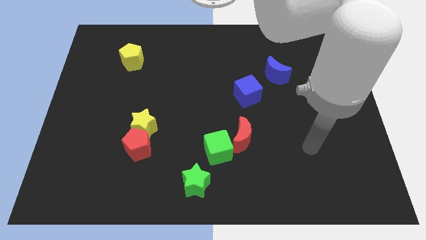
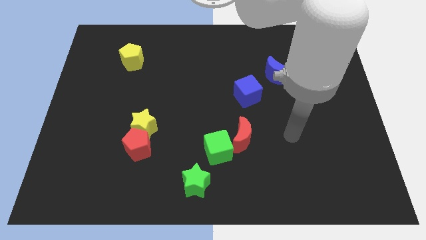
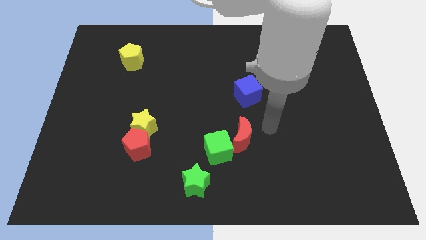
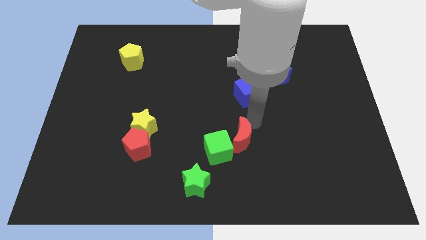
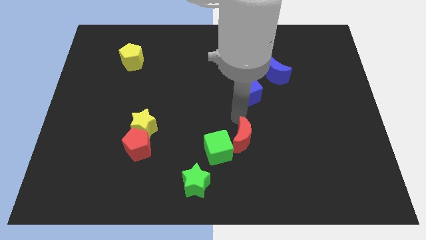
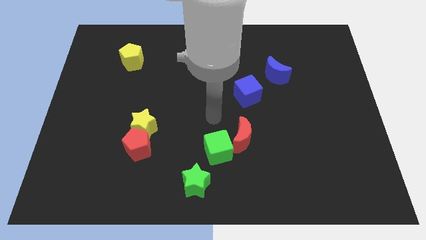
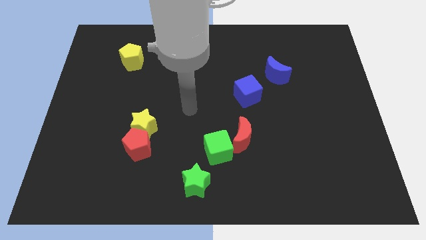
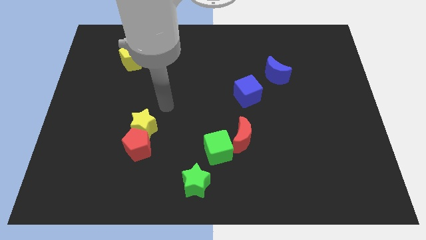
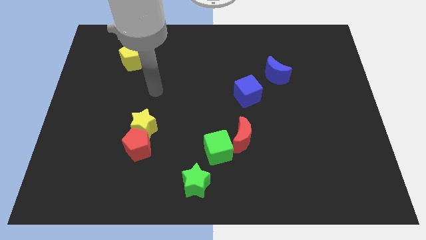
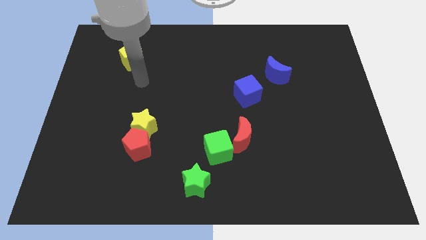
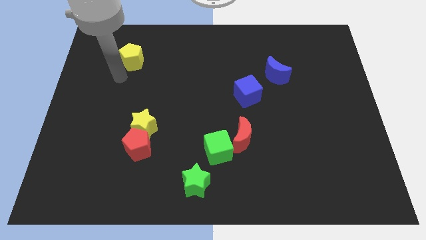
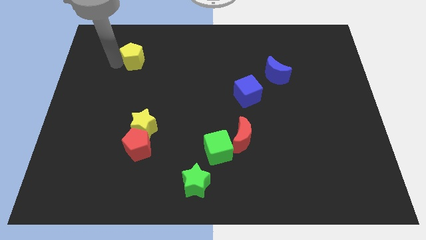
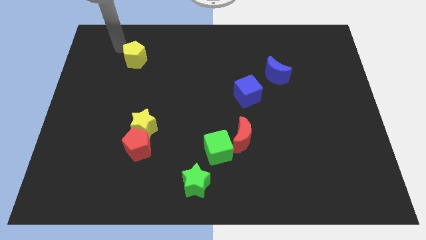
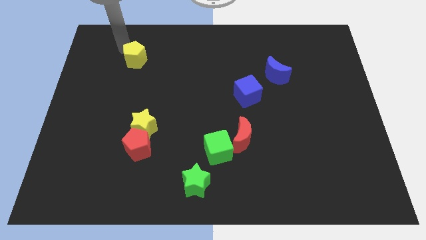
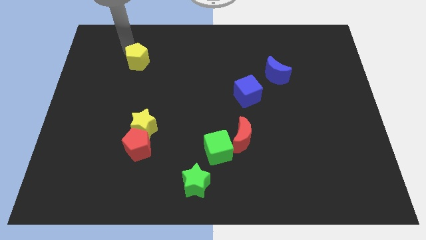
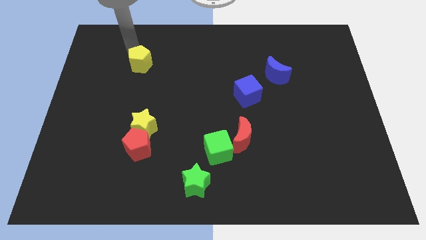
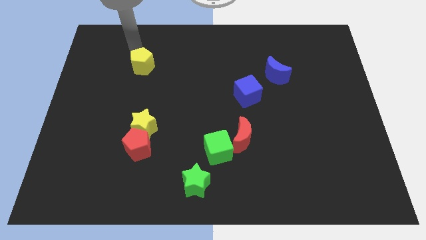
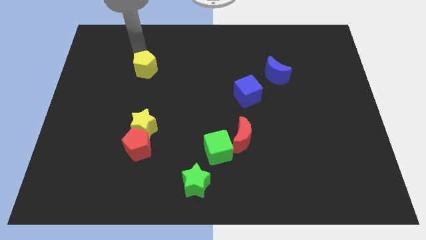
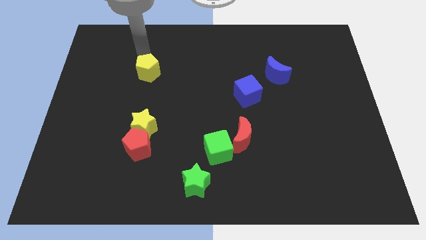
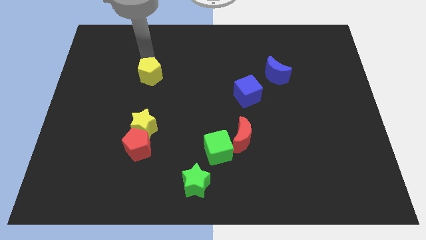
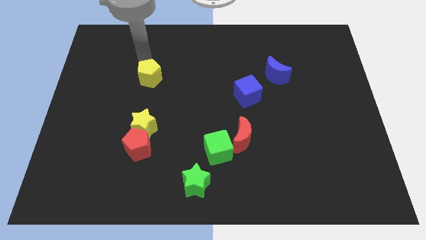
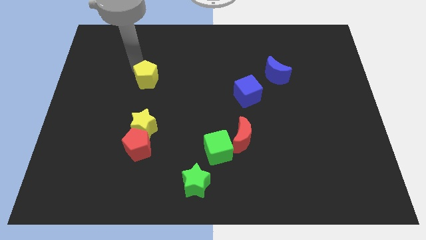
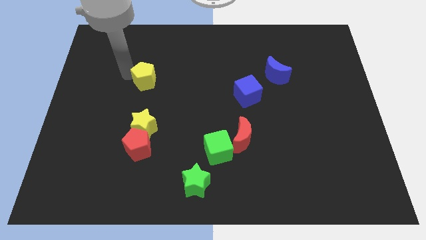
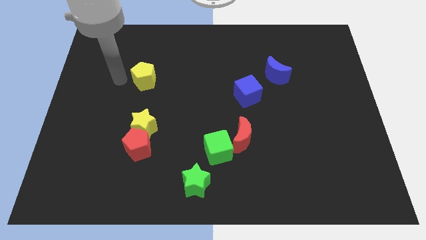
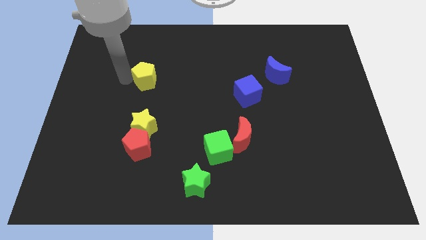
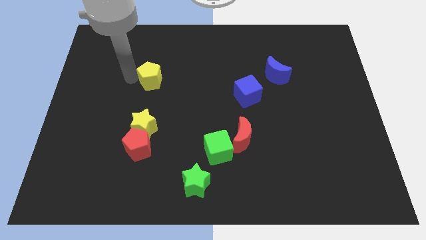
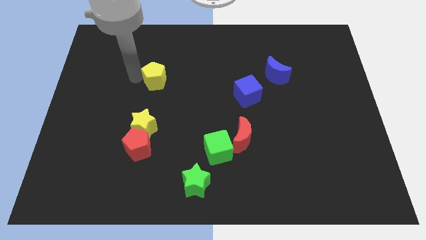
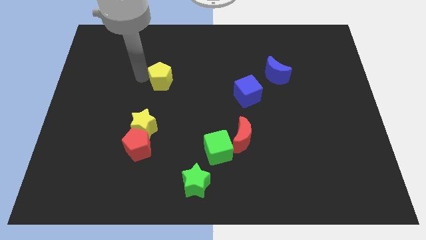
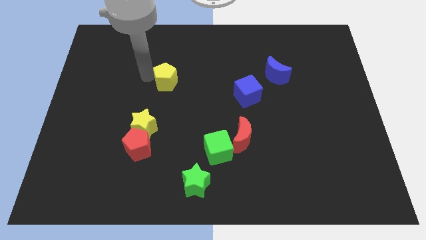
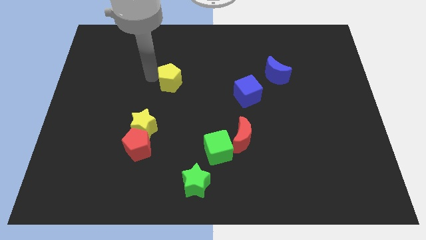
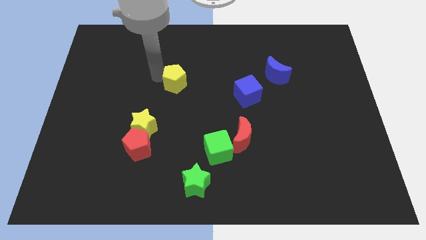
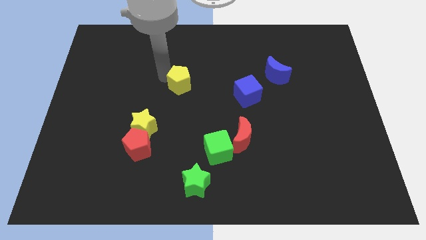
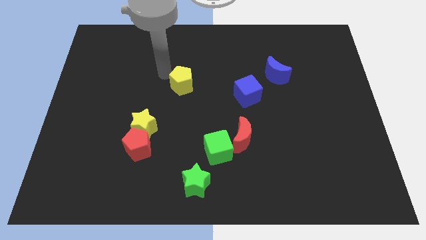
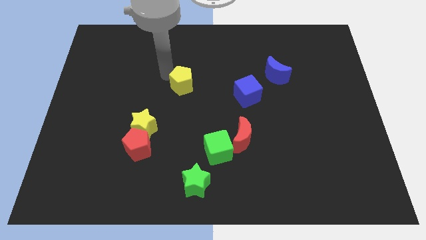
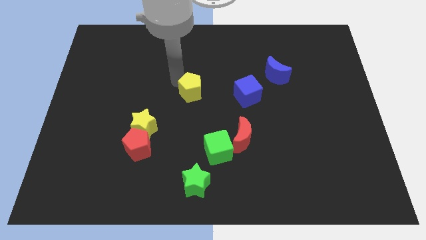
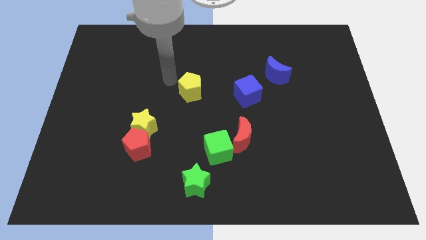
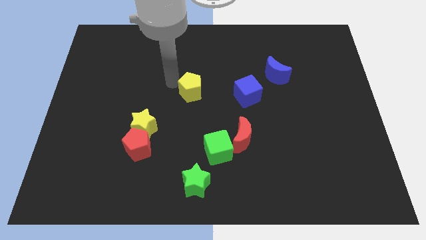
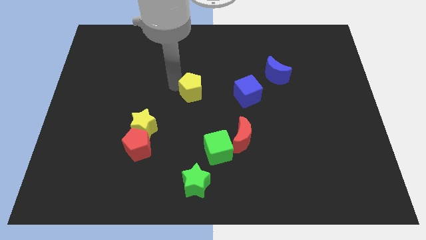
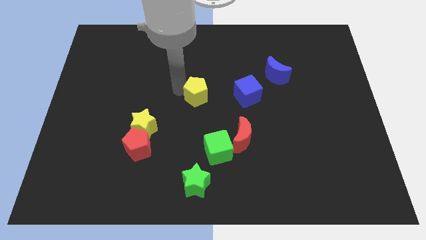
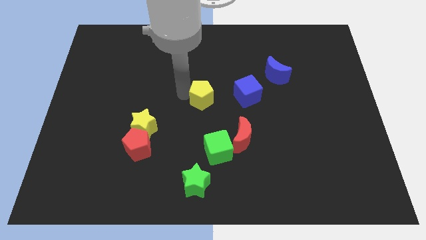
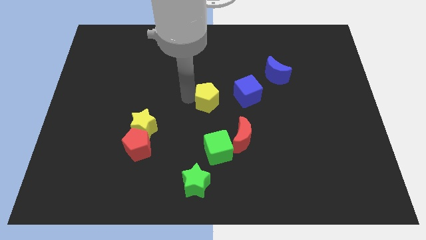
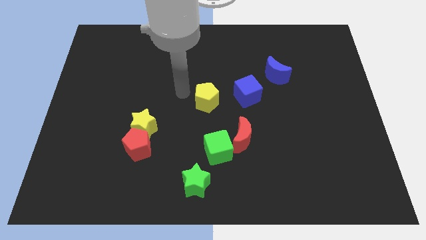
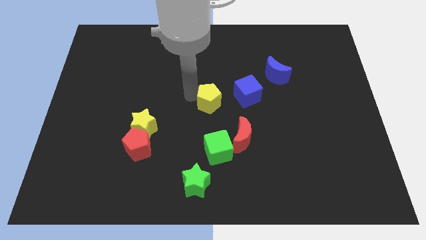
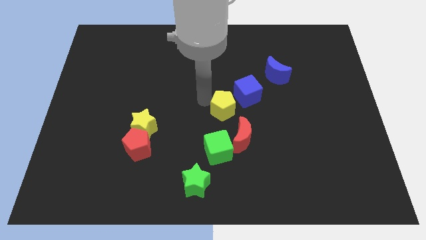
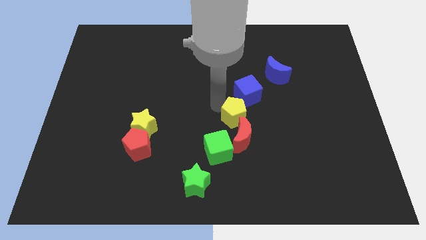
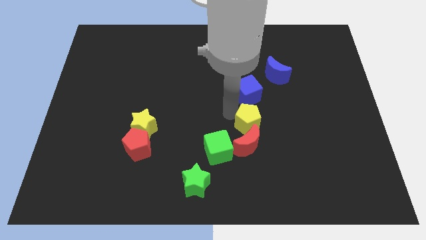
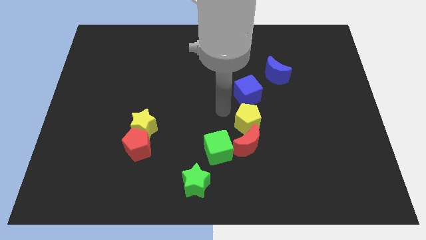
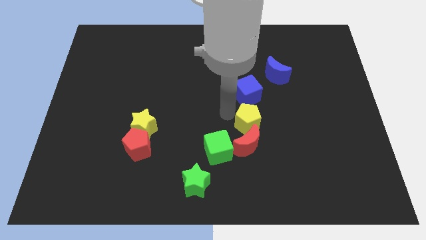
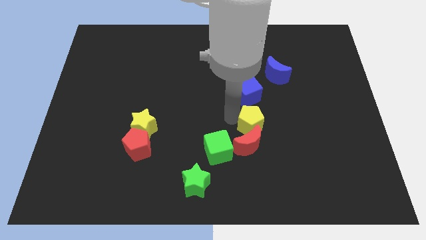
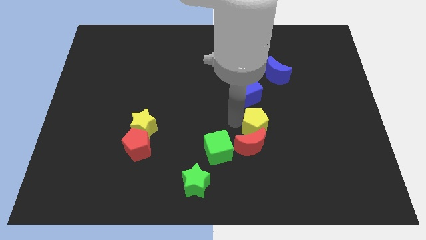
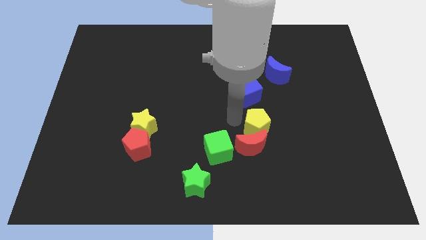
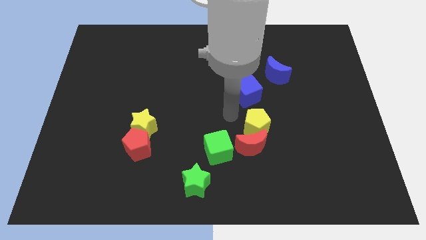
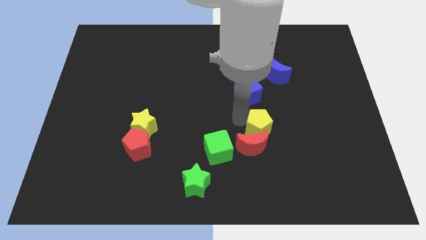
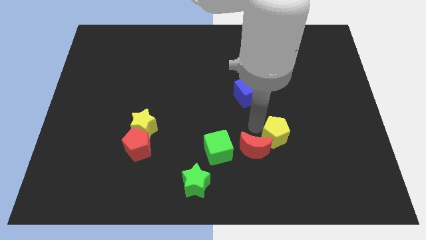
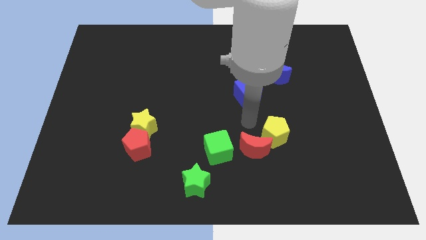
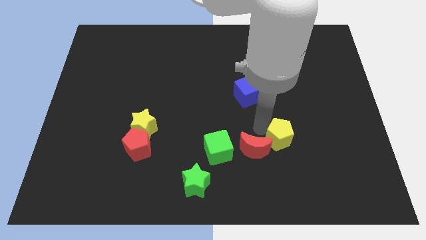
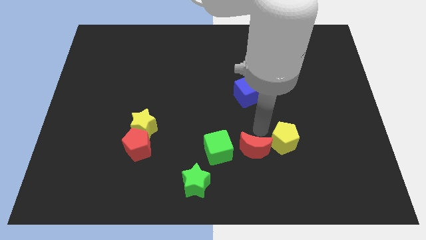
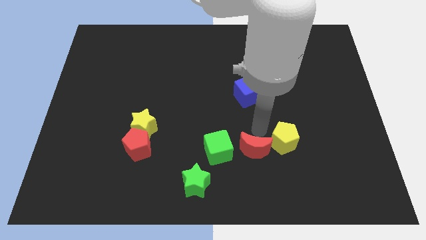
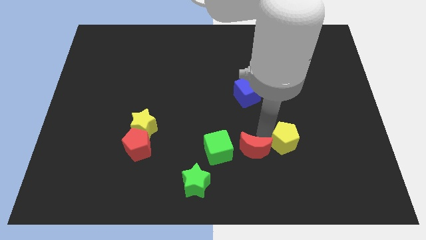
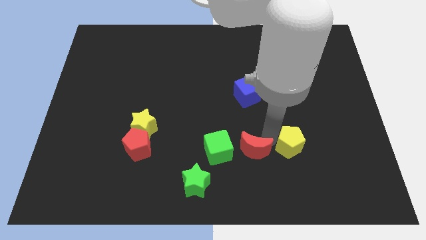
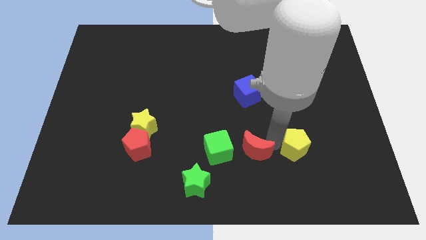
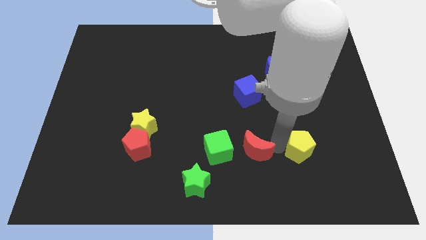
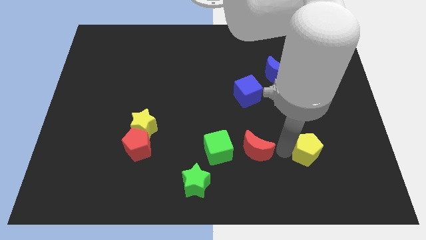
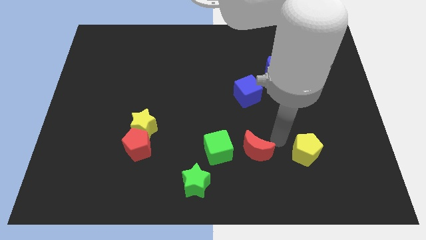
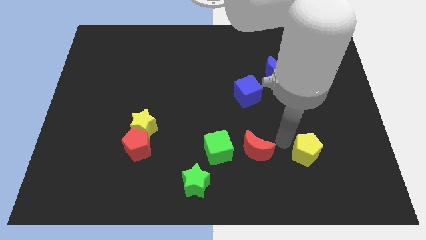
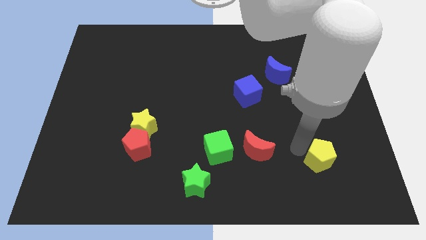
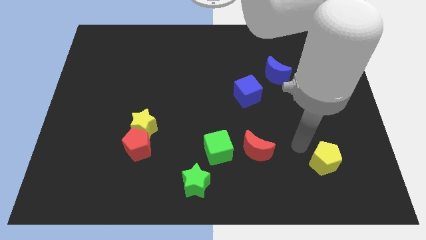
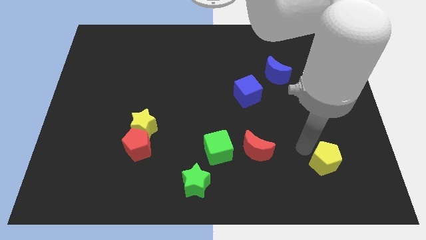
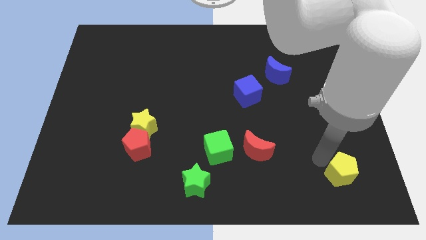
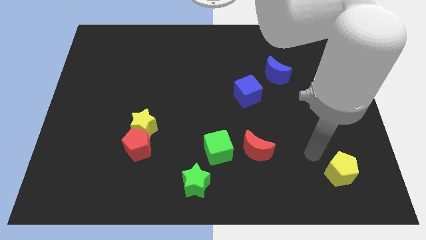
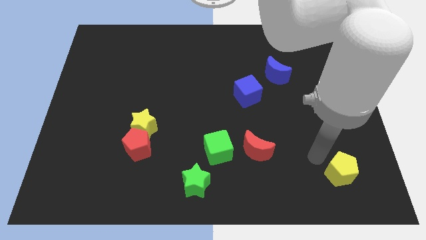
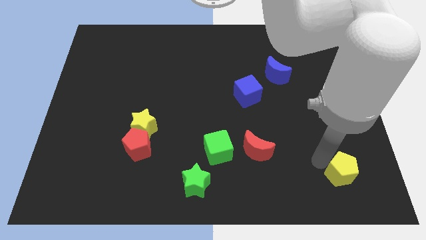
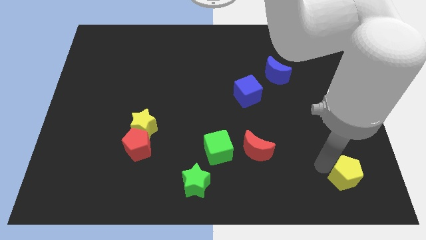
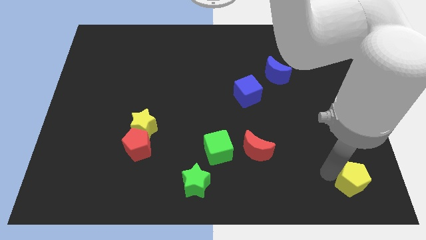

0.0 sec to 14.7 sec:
move the yellow pentagon to the bottom right corner
